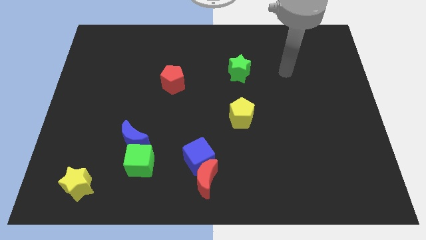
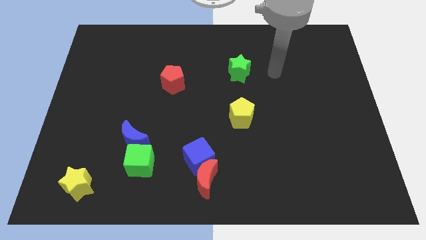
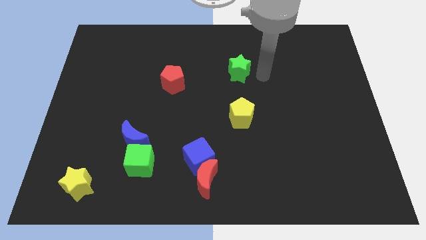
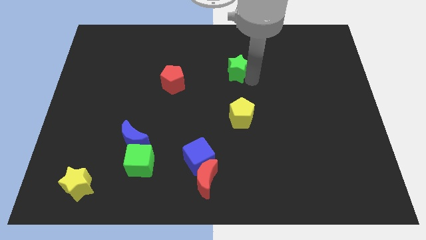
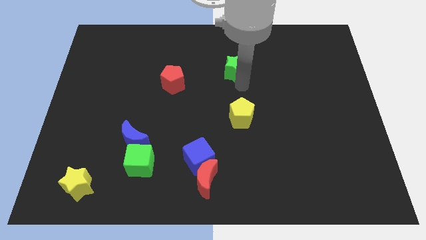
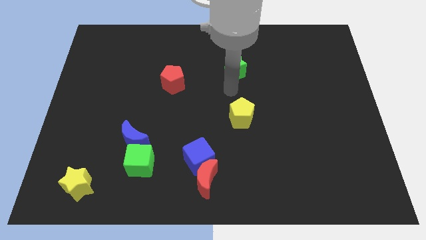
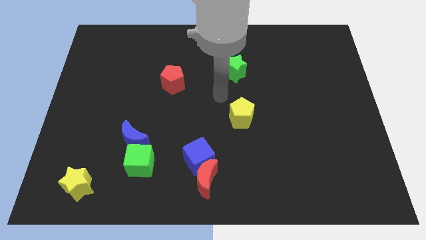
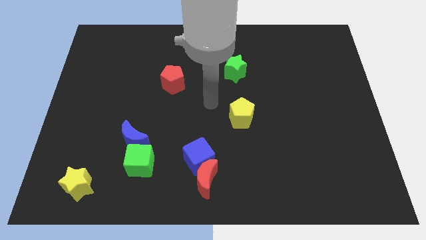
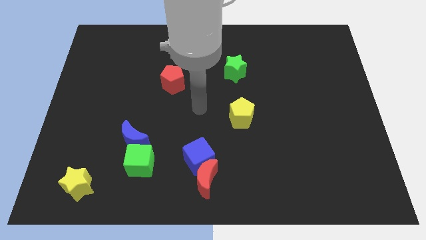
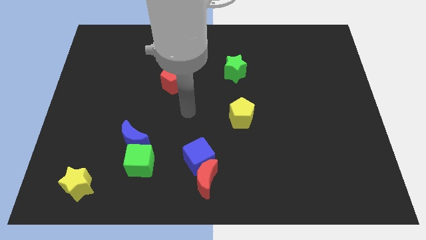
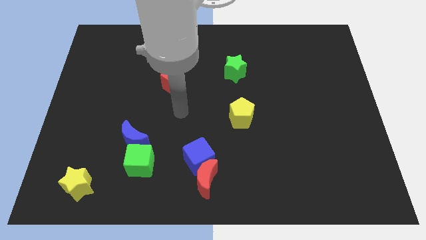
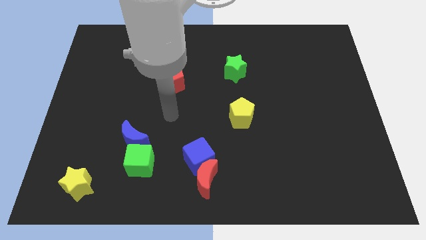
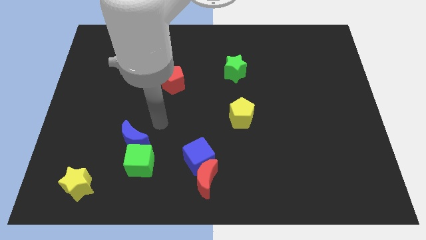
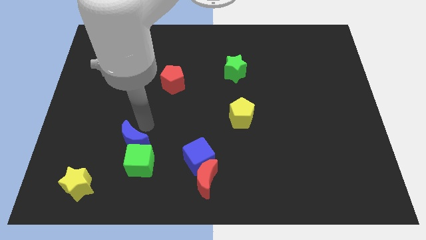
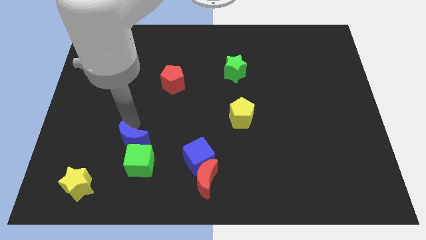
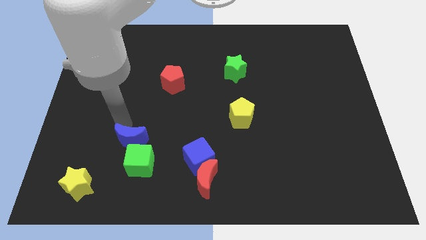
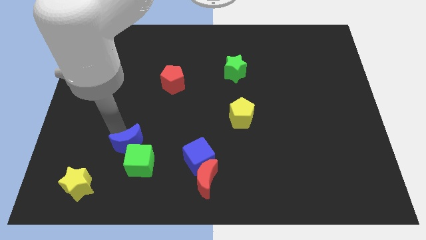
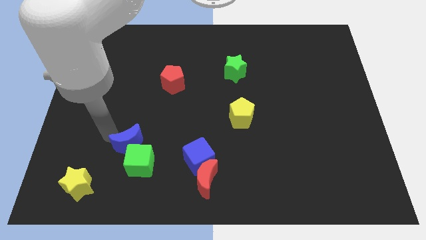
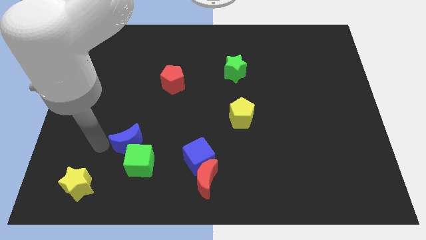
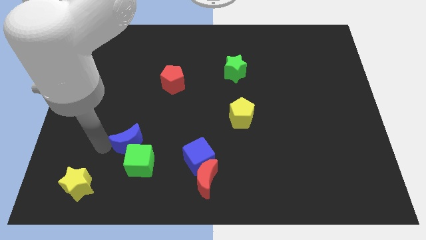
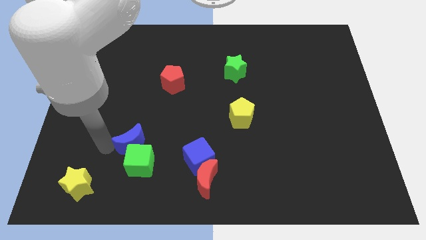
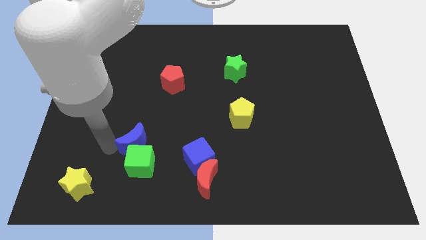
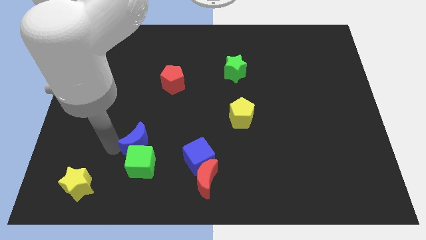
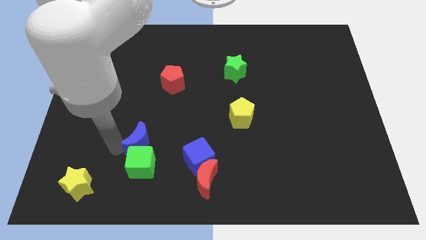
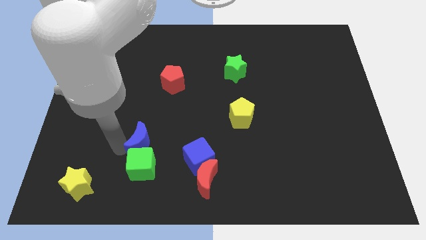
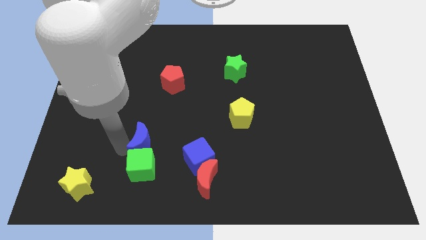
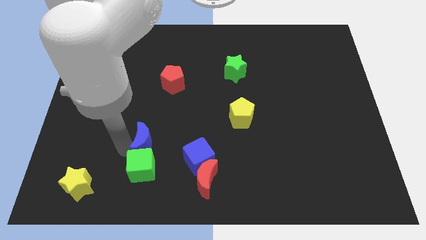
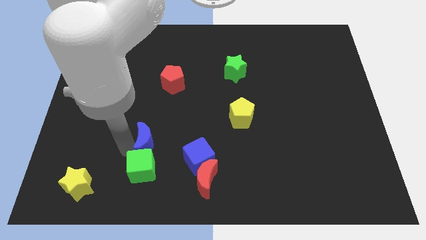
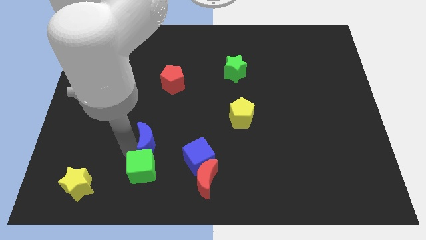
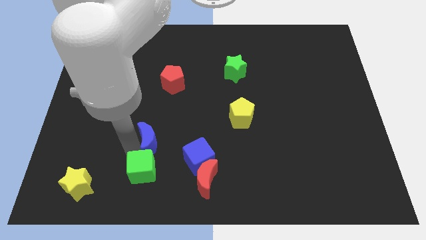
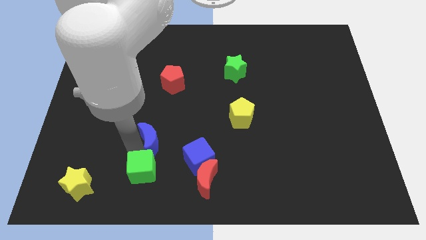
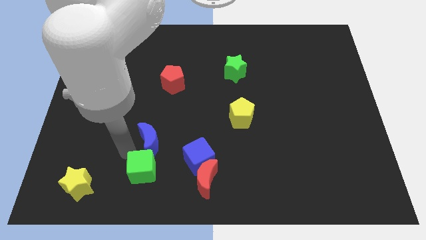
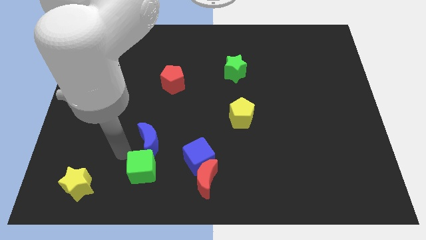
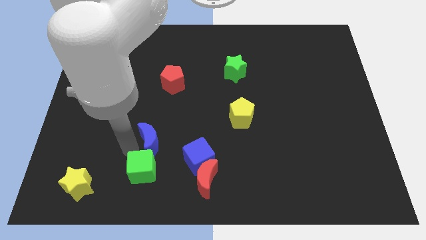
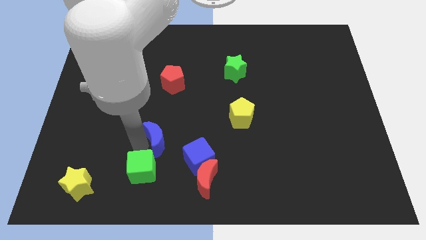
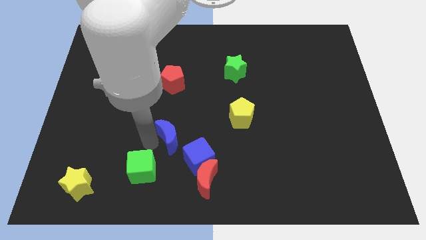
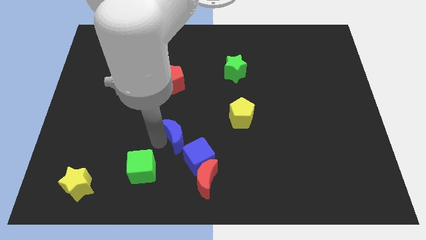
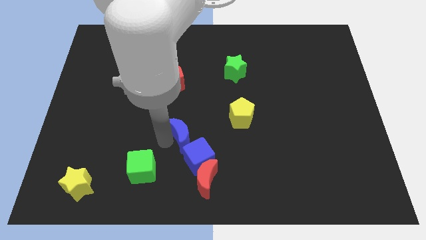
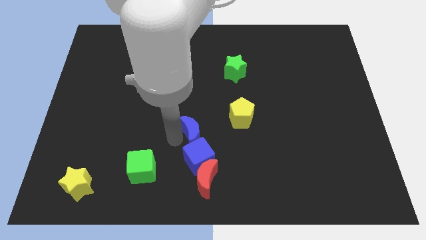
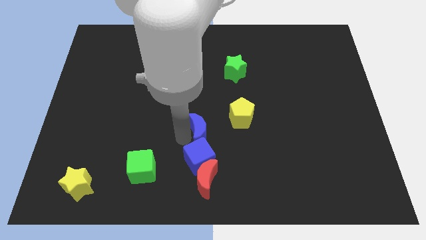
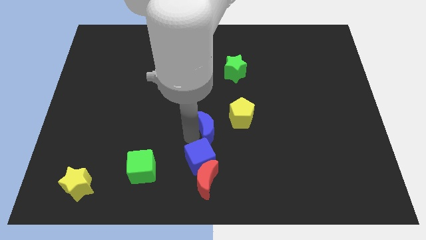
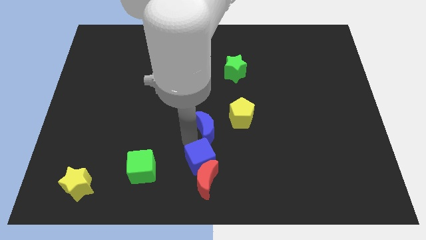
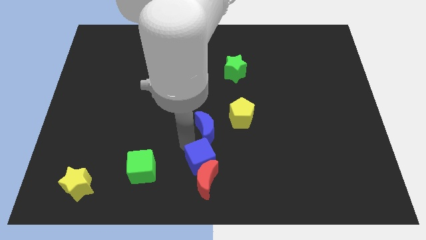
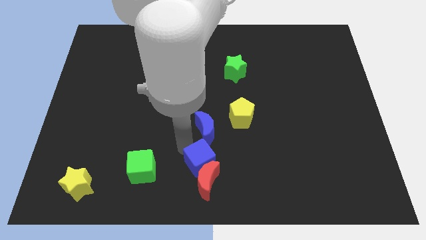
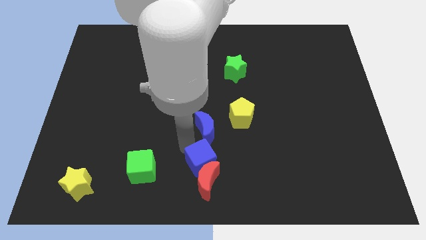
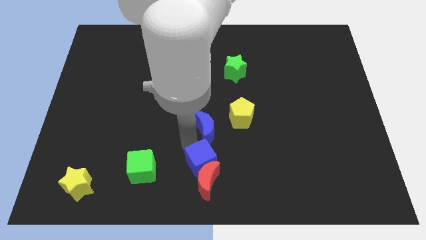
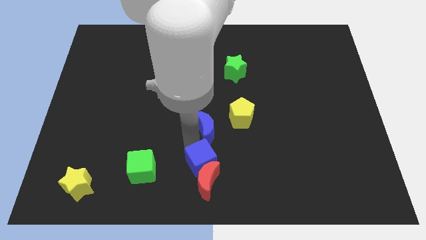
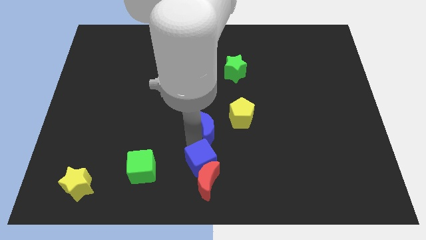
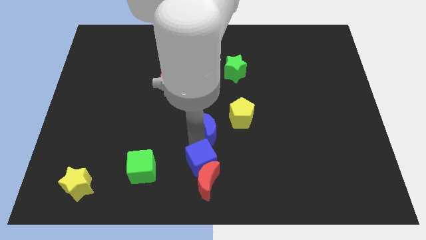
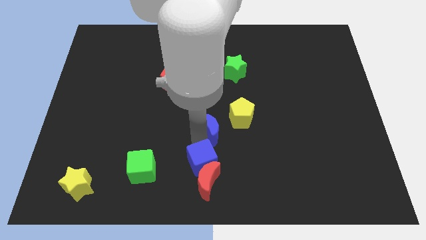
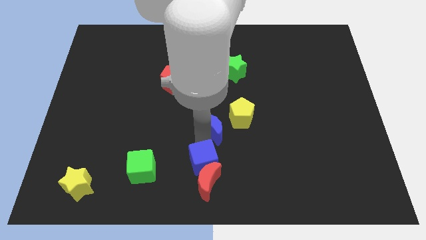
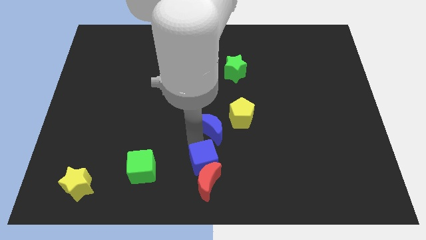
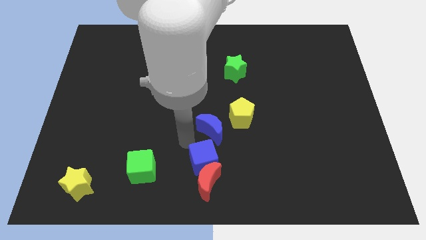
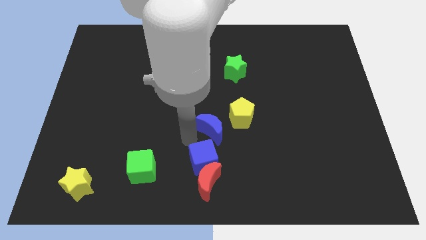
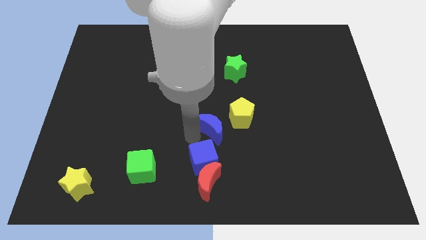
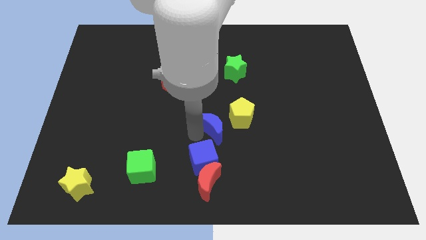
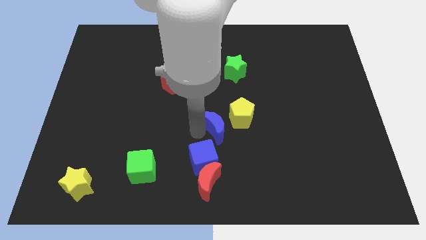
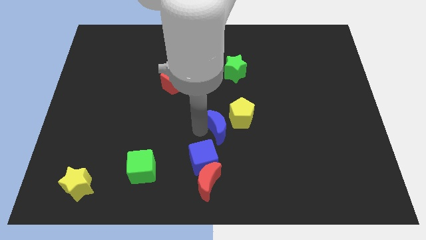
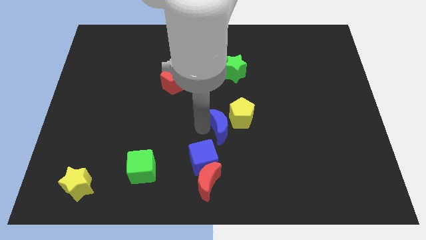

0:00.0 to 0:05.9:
slide the blue moon to the yellow pentagon

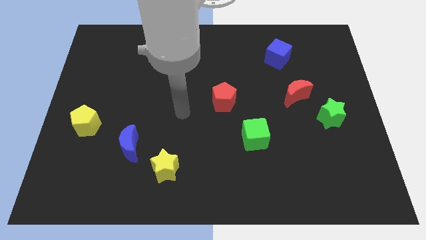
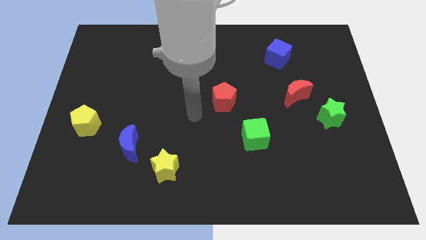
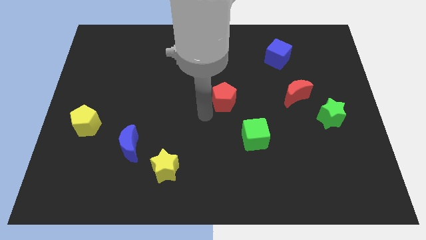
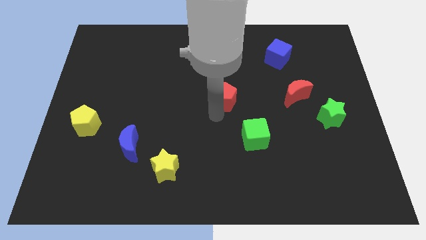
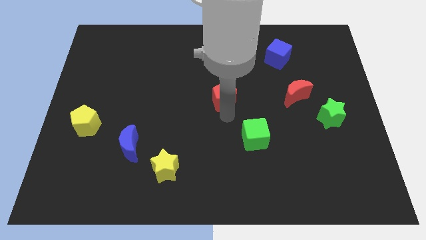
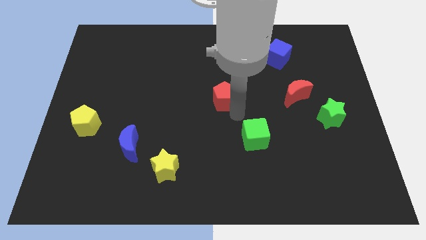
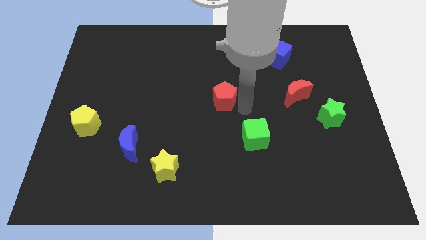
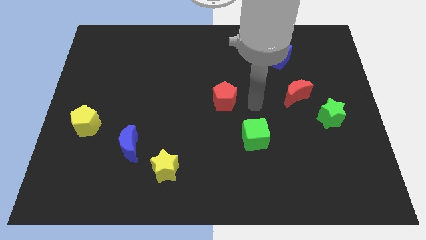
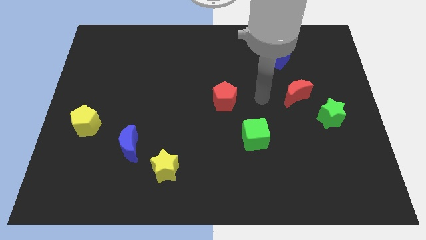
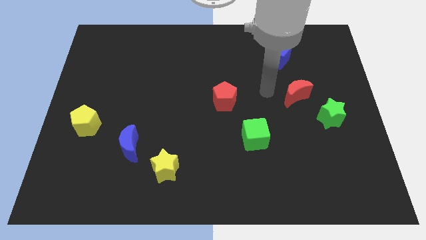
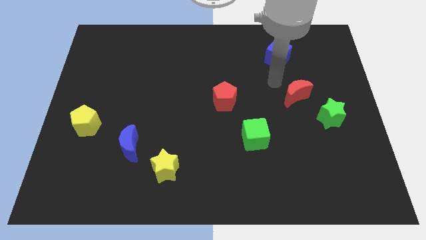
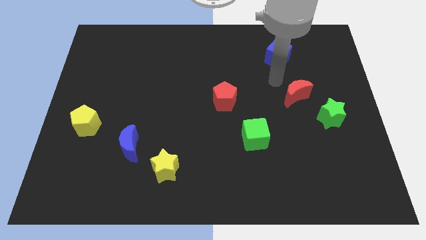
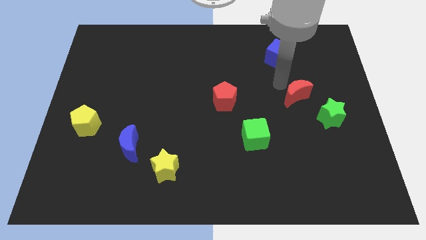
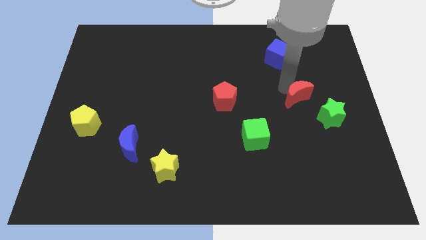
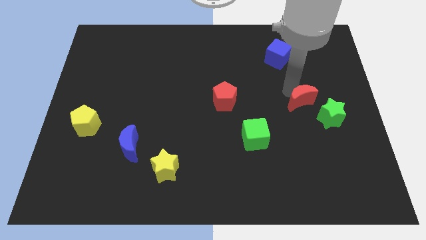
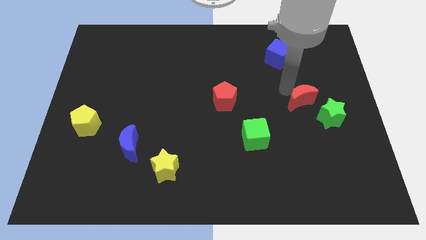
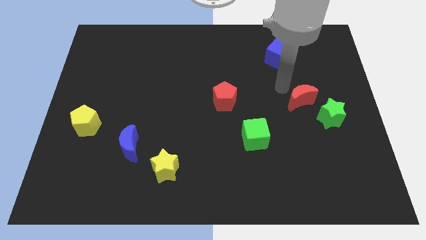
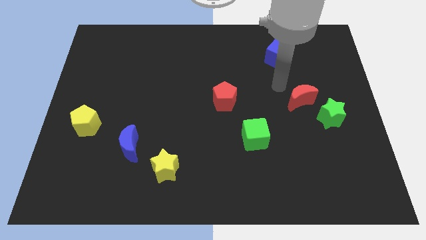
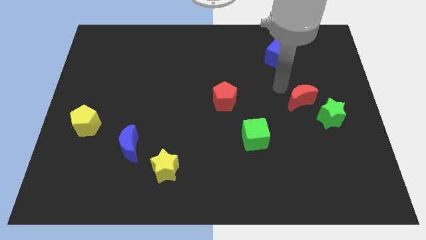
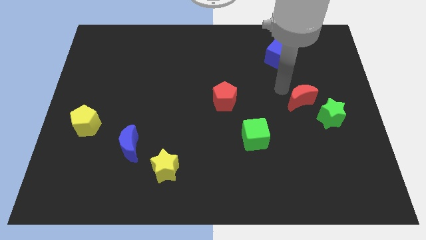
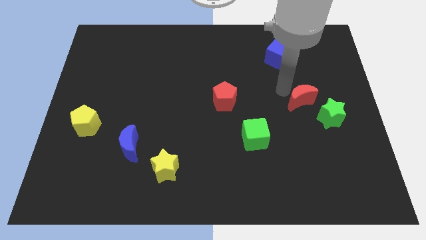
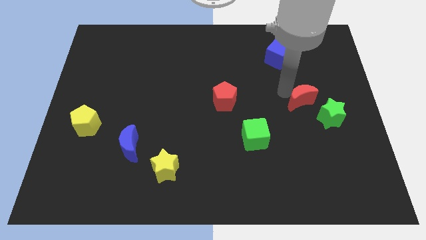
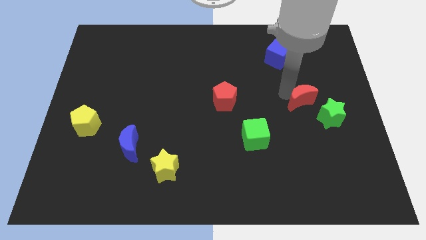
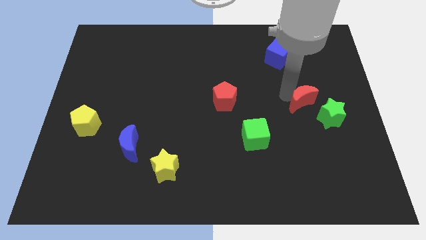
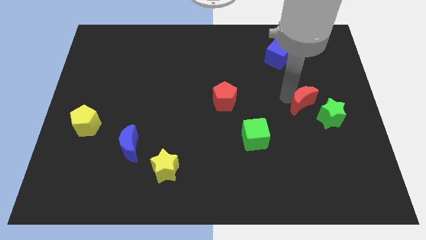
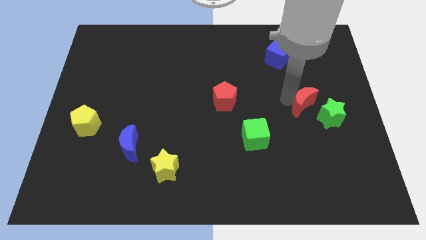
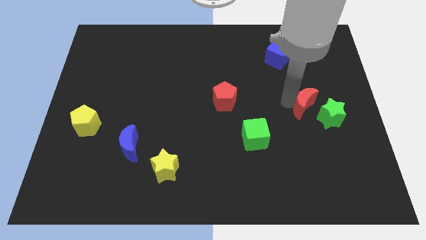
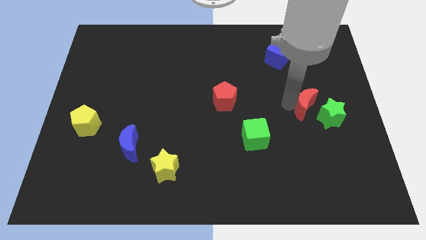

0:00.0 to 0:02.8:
move the red moon next to the green star
